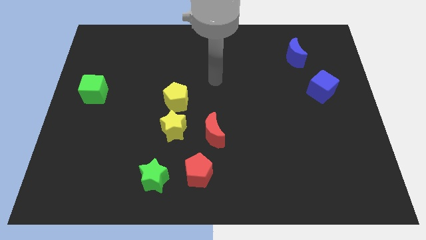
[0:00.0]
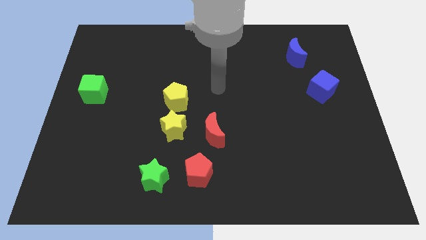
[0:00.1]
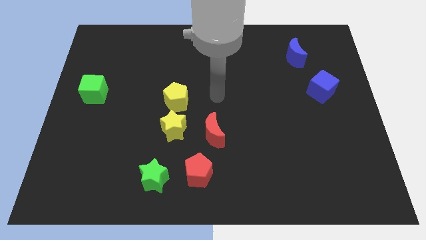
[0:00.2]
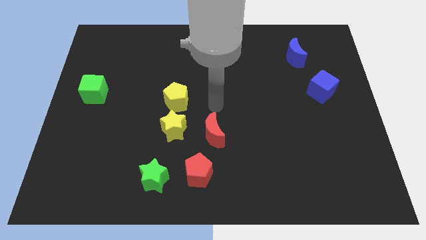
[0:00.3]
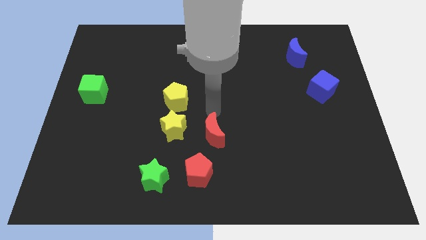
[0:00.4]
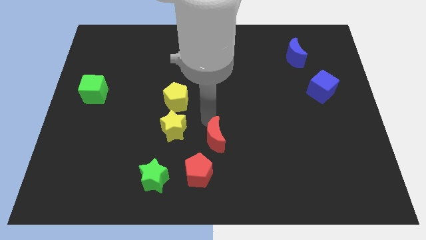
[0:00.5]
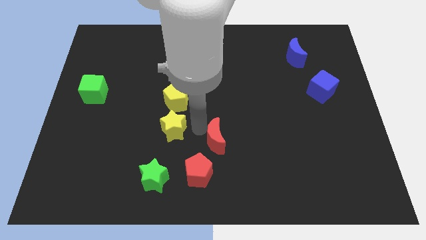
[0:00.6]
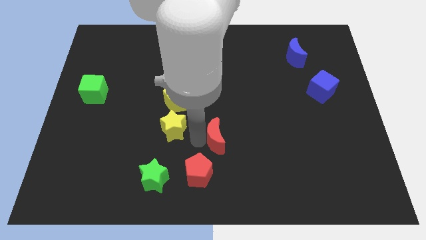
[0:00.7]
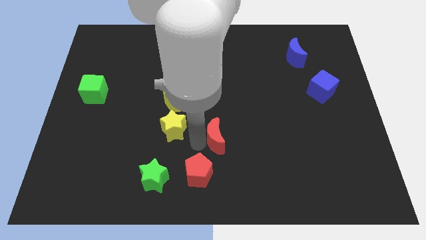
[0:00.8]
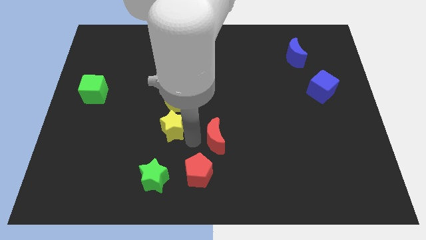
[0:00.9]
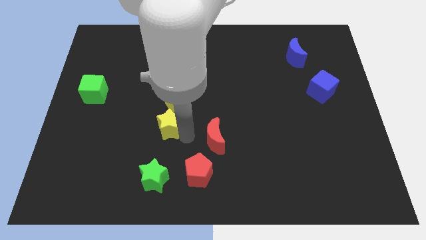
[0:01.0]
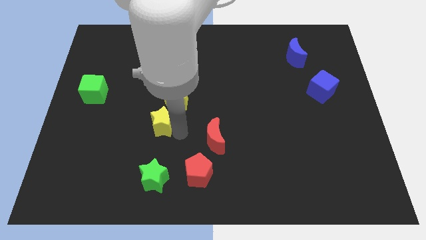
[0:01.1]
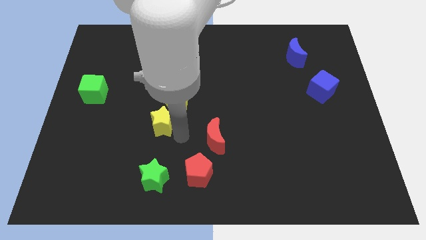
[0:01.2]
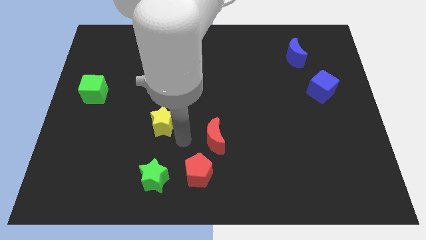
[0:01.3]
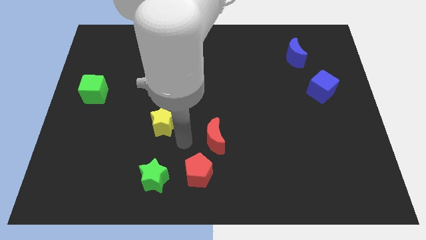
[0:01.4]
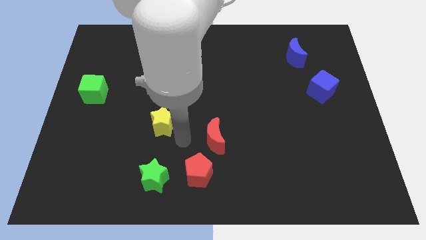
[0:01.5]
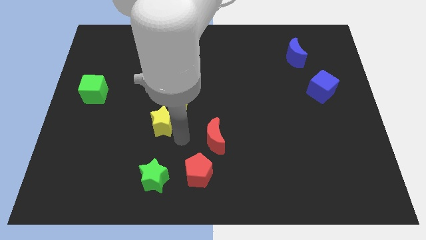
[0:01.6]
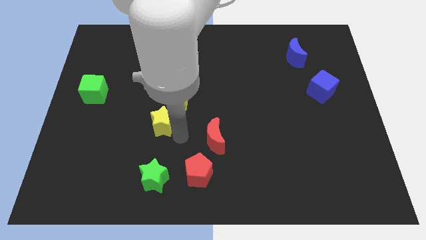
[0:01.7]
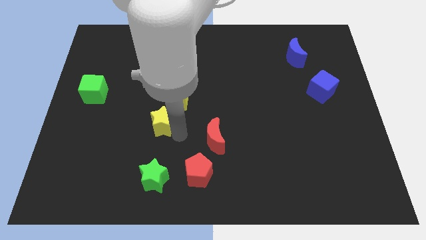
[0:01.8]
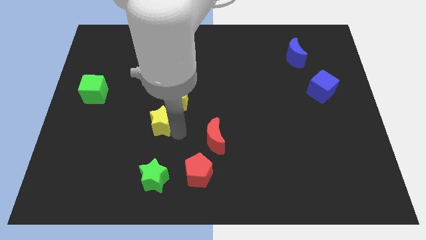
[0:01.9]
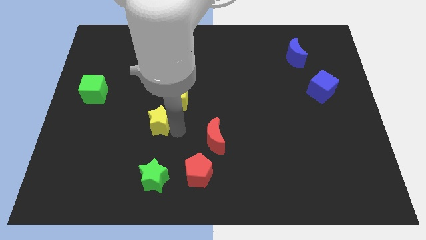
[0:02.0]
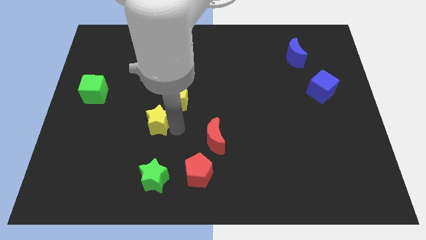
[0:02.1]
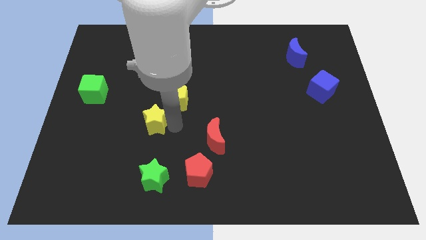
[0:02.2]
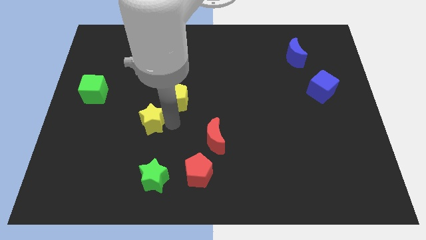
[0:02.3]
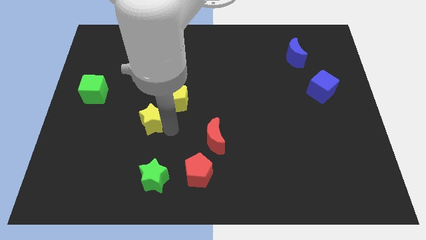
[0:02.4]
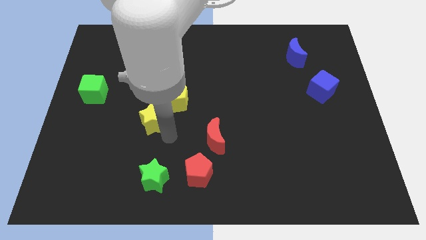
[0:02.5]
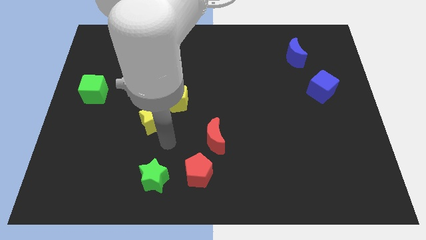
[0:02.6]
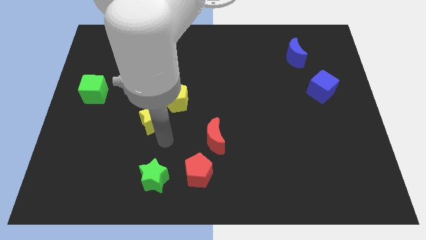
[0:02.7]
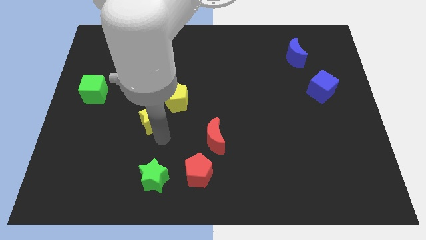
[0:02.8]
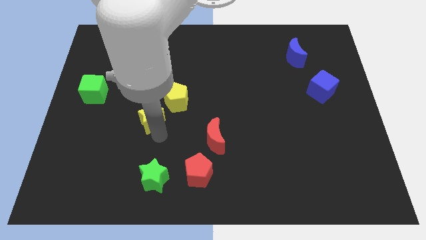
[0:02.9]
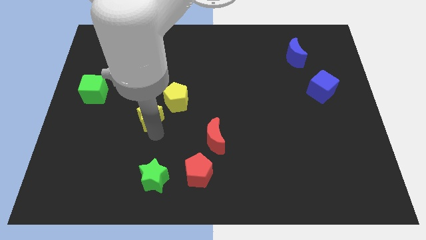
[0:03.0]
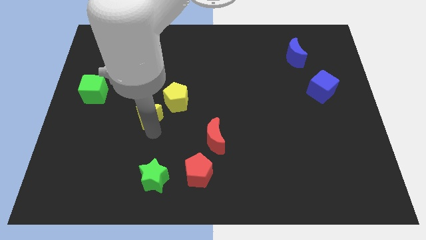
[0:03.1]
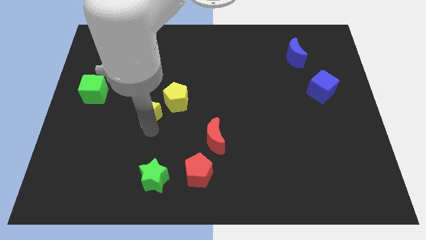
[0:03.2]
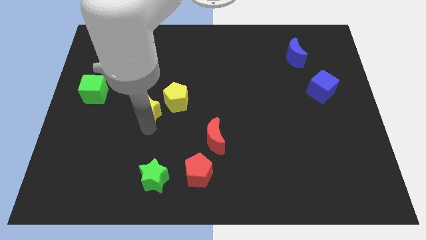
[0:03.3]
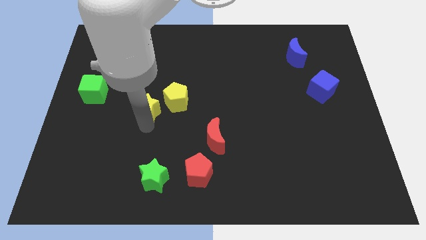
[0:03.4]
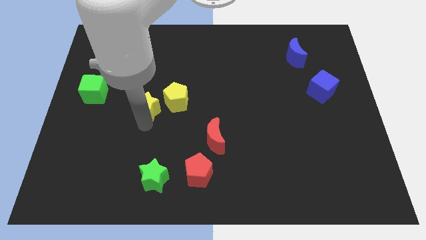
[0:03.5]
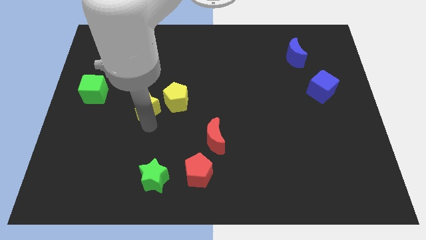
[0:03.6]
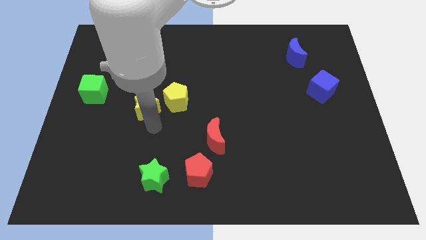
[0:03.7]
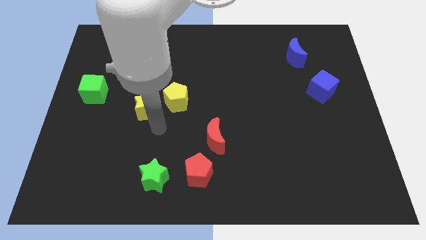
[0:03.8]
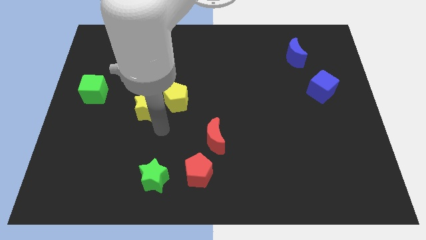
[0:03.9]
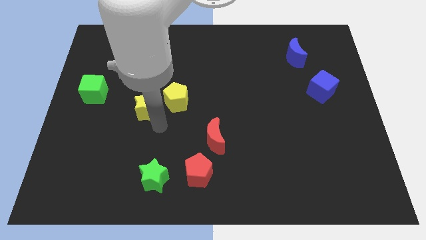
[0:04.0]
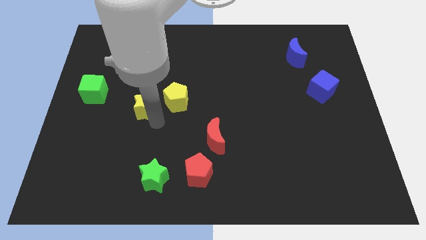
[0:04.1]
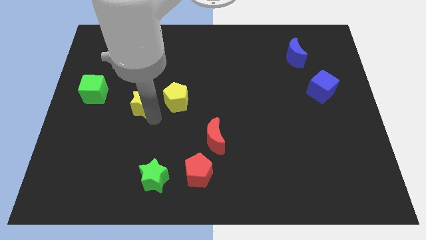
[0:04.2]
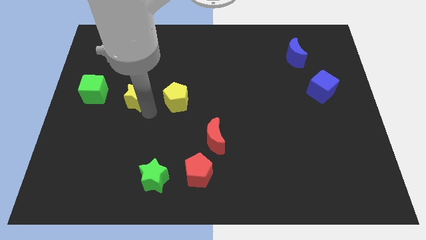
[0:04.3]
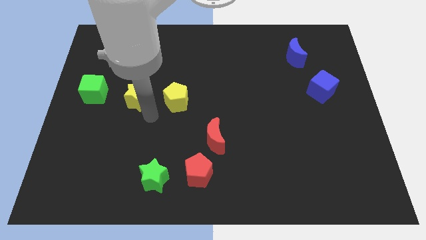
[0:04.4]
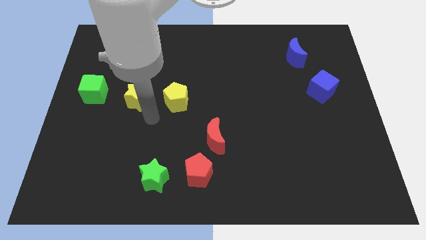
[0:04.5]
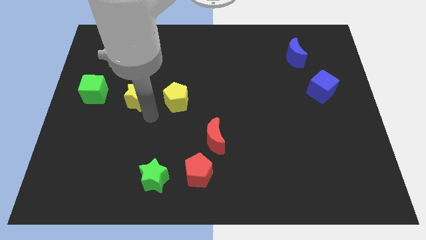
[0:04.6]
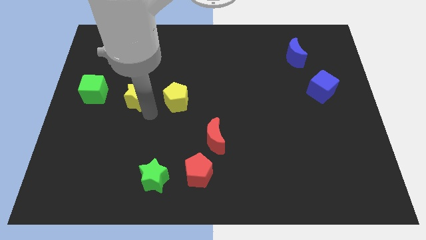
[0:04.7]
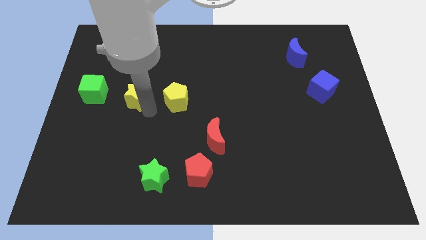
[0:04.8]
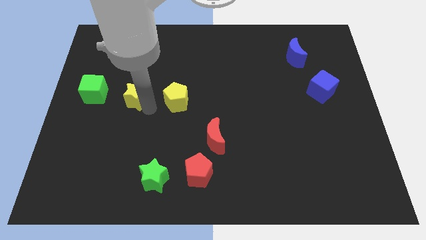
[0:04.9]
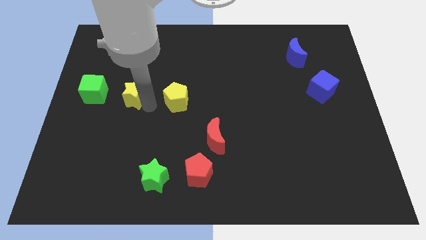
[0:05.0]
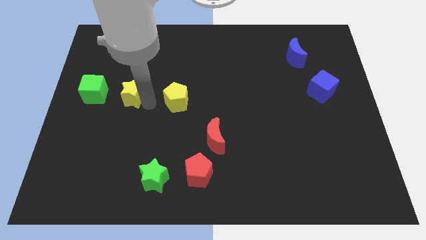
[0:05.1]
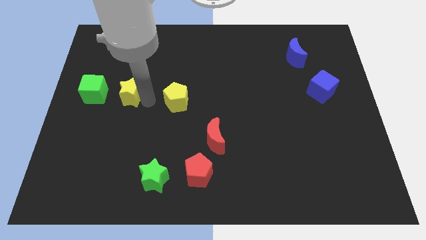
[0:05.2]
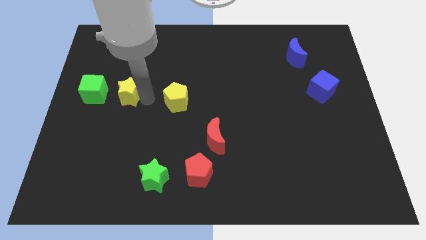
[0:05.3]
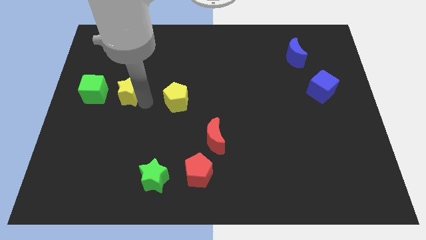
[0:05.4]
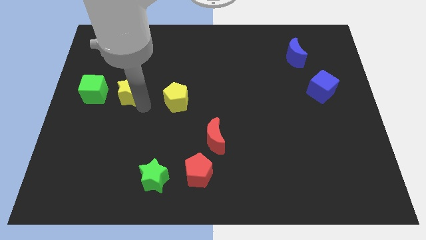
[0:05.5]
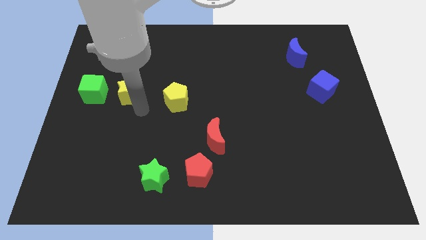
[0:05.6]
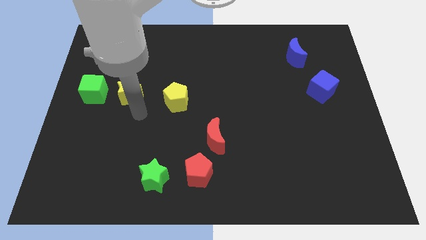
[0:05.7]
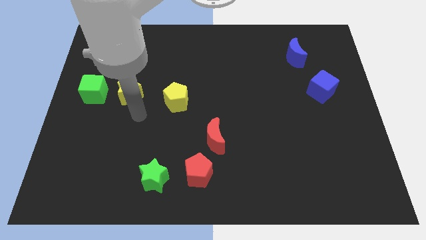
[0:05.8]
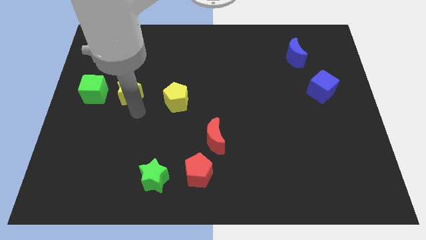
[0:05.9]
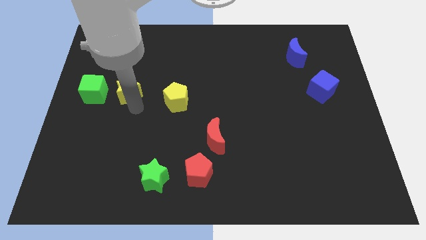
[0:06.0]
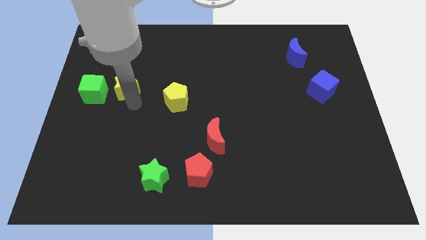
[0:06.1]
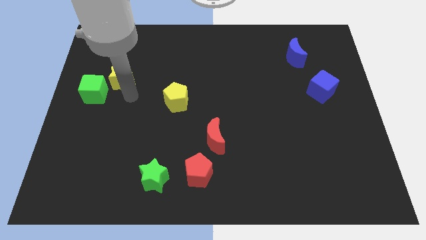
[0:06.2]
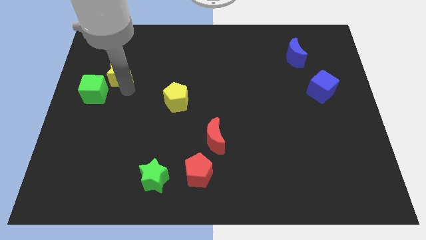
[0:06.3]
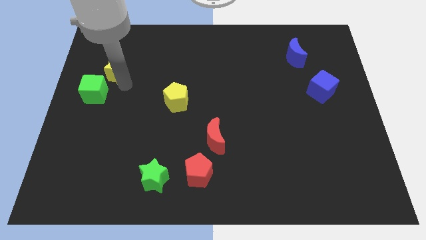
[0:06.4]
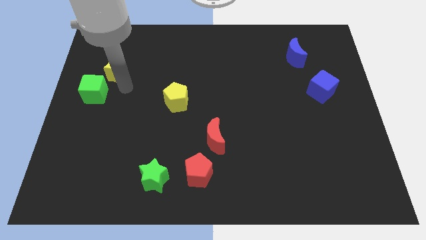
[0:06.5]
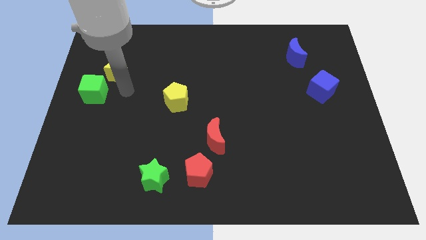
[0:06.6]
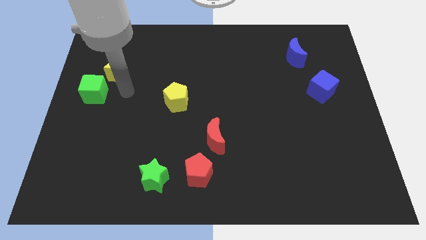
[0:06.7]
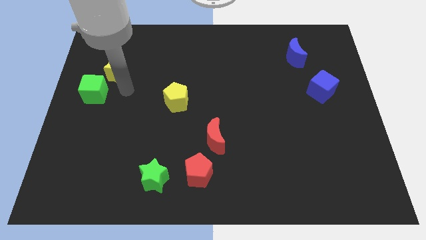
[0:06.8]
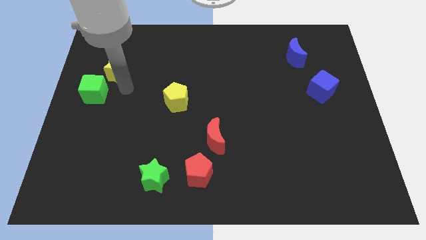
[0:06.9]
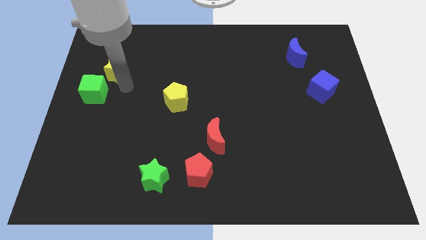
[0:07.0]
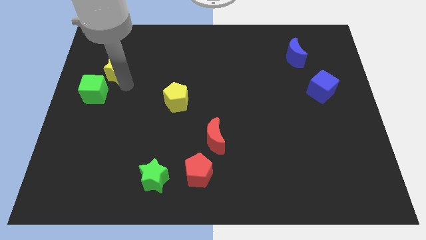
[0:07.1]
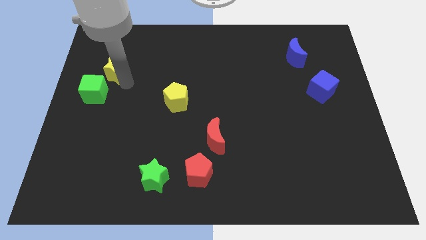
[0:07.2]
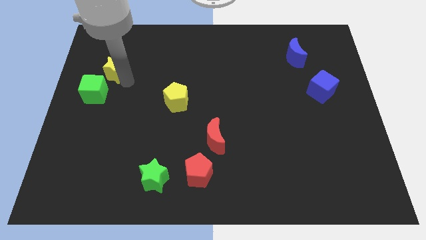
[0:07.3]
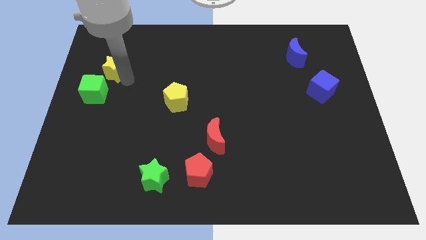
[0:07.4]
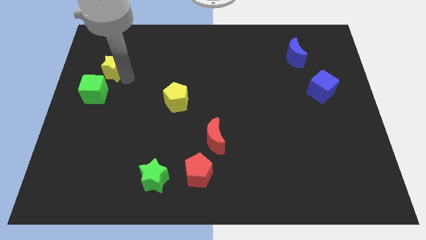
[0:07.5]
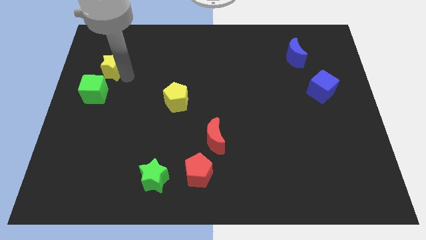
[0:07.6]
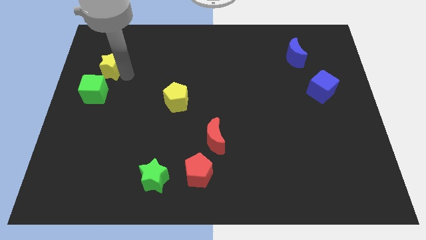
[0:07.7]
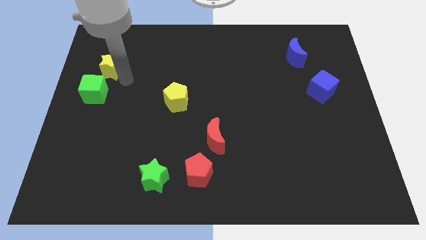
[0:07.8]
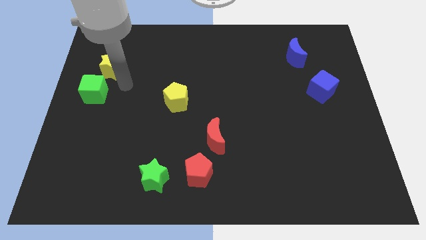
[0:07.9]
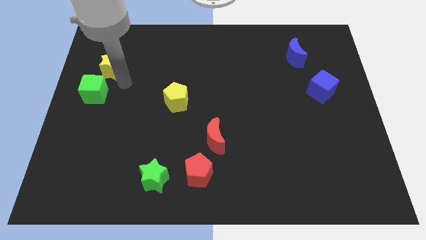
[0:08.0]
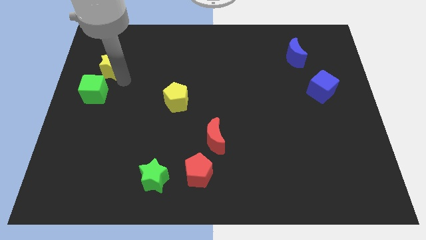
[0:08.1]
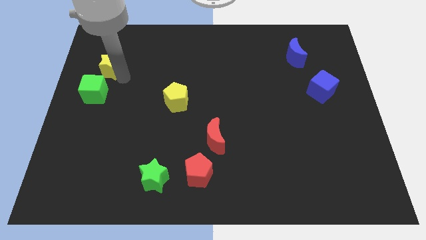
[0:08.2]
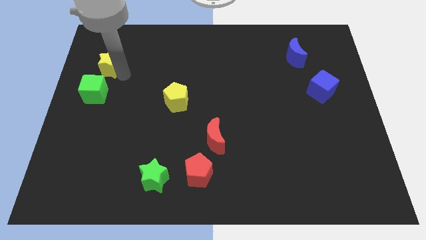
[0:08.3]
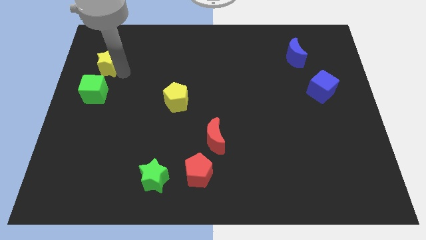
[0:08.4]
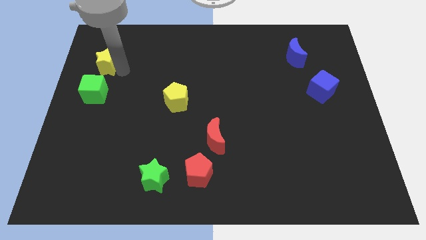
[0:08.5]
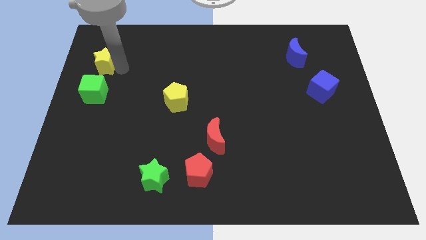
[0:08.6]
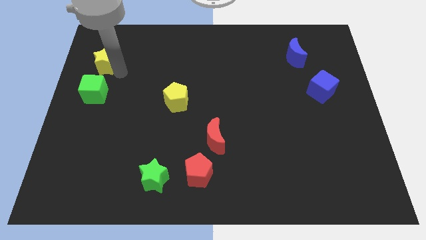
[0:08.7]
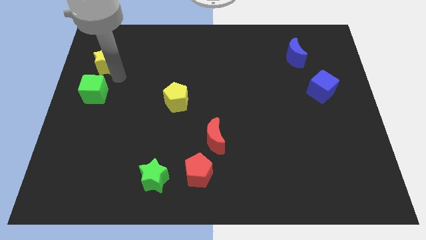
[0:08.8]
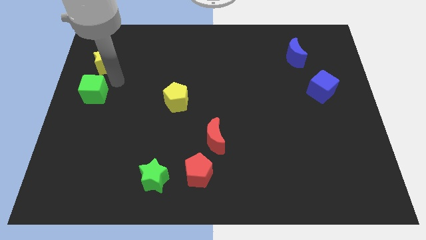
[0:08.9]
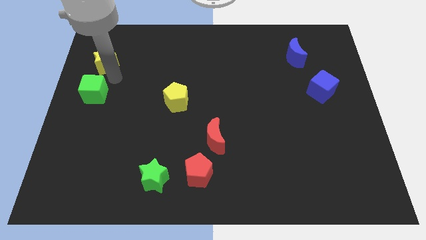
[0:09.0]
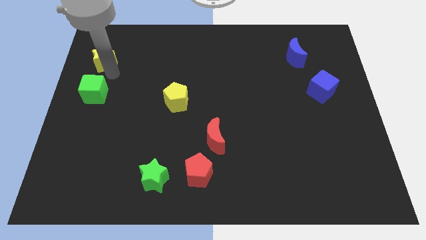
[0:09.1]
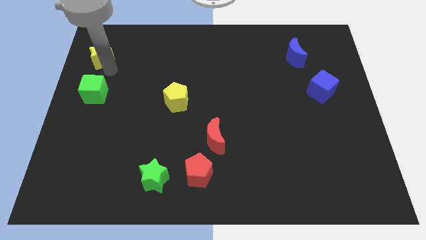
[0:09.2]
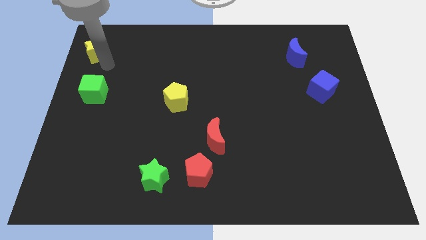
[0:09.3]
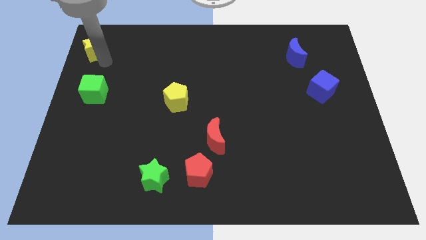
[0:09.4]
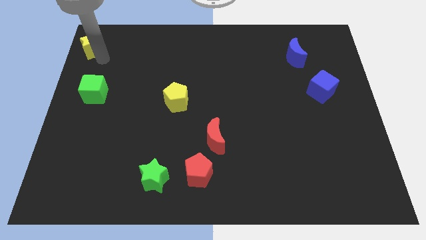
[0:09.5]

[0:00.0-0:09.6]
put the yellow star to the top left corner
